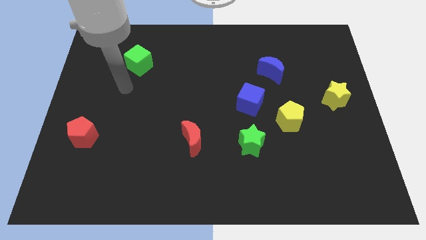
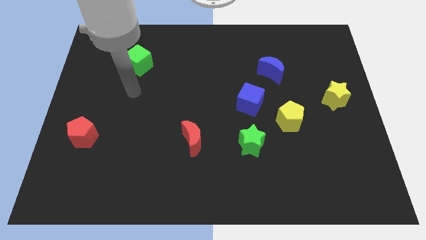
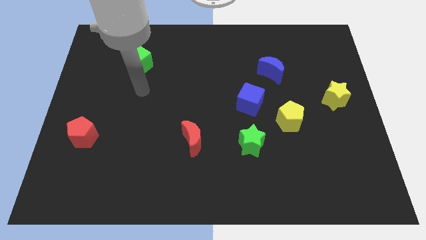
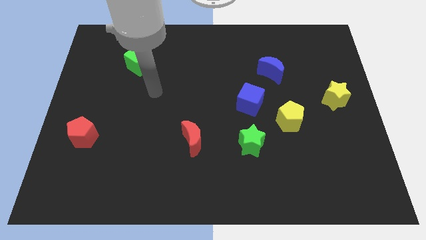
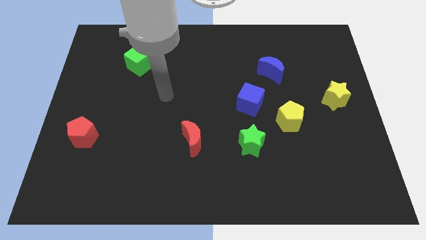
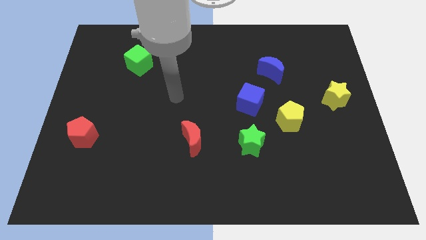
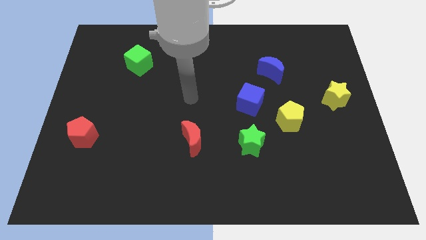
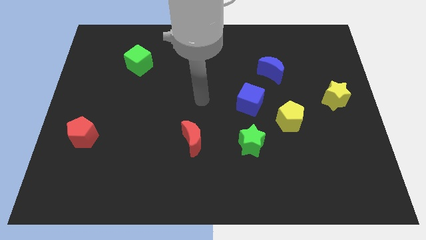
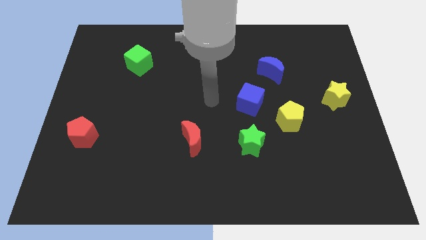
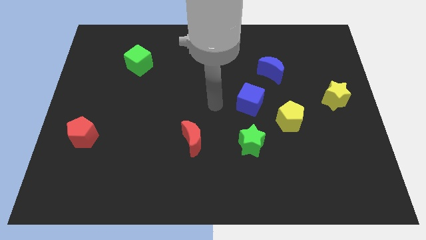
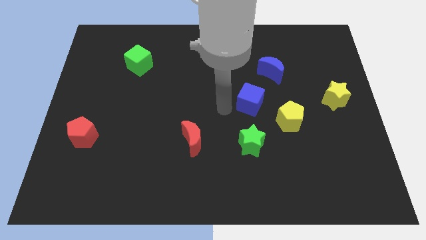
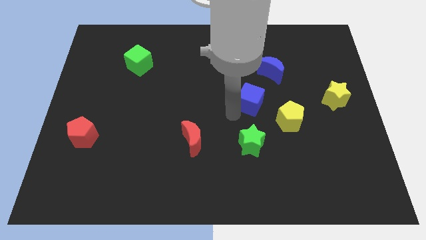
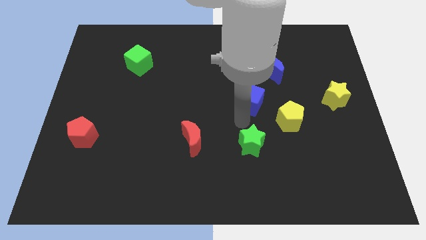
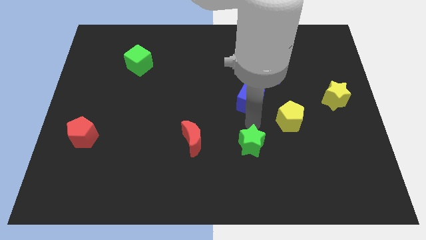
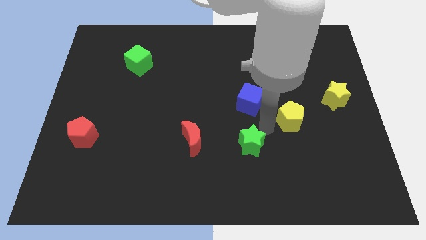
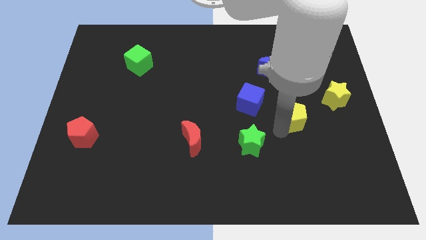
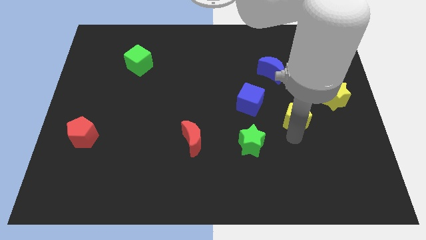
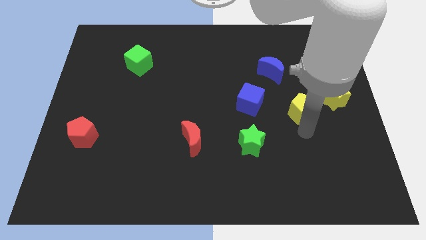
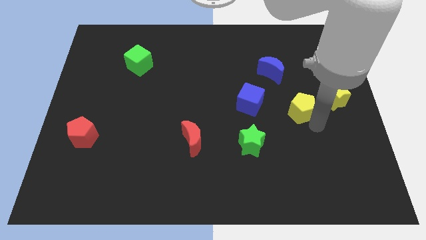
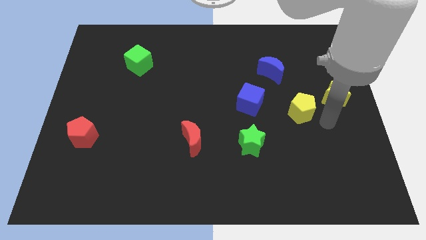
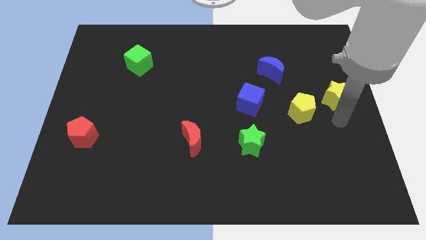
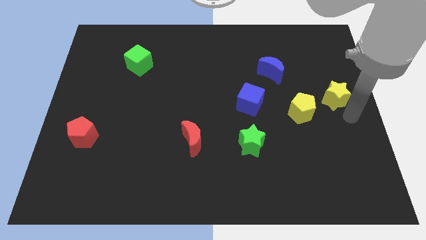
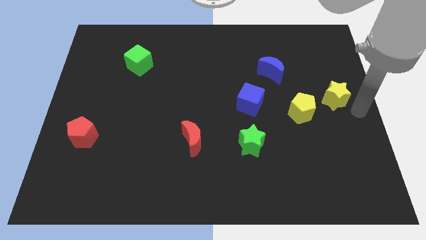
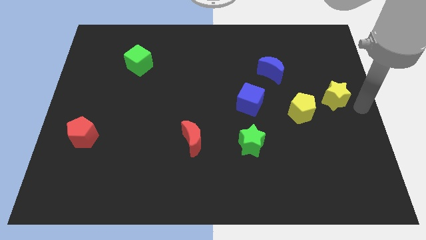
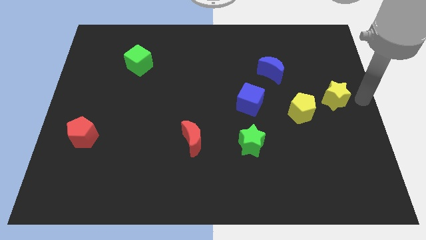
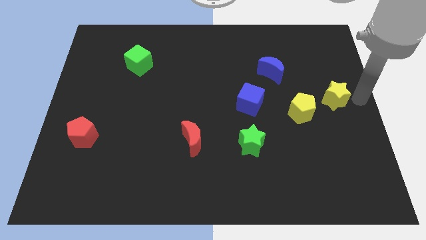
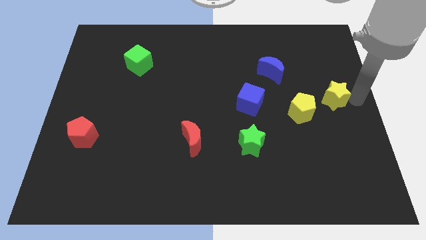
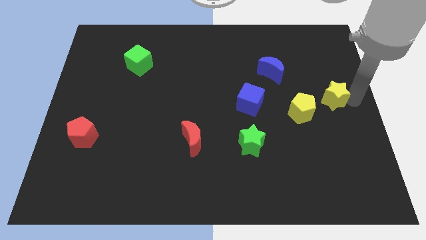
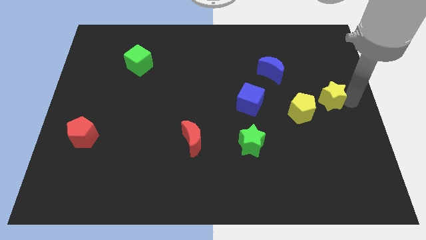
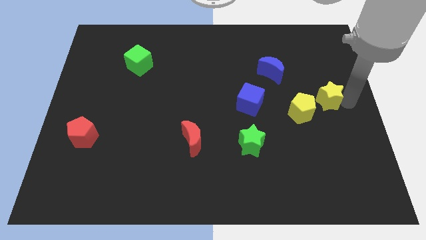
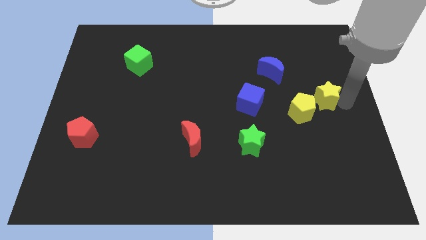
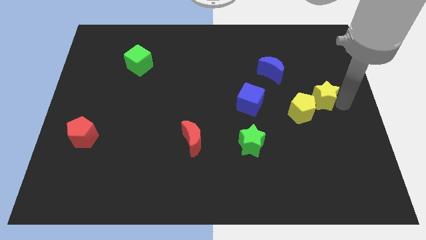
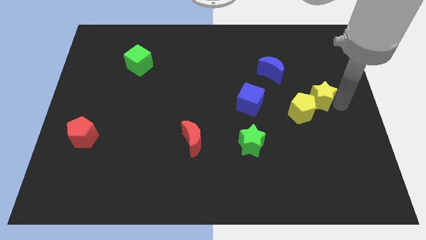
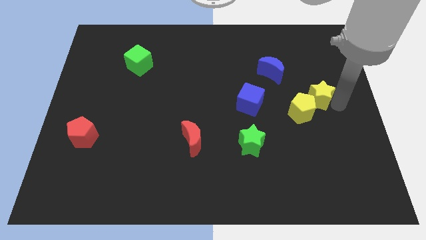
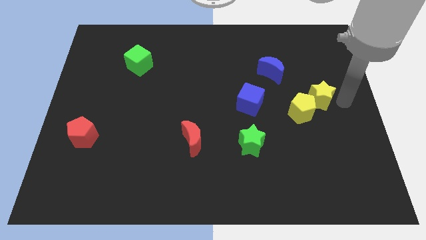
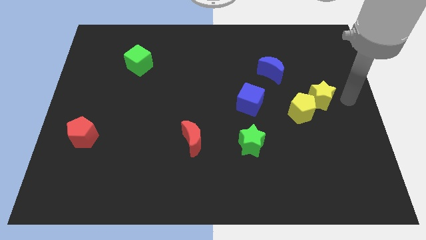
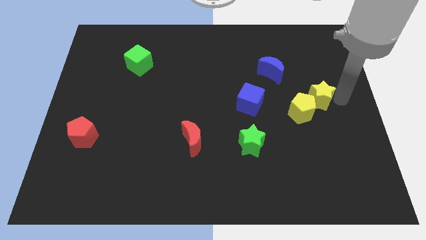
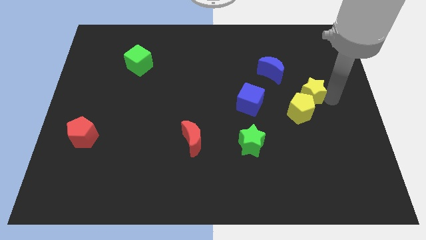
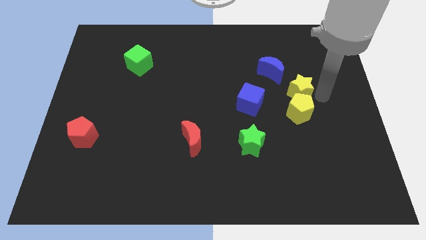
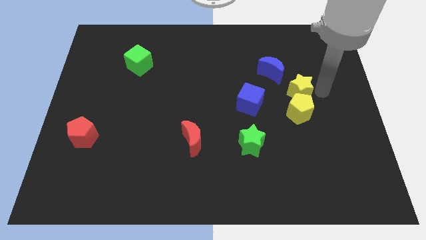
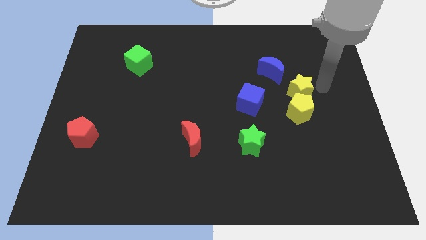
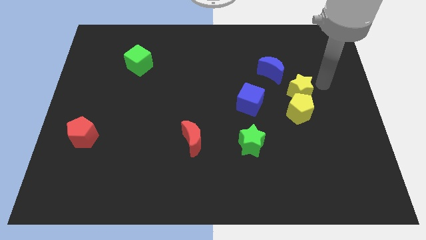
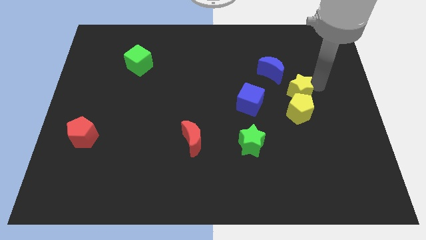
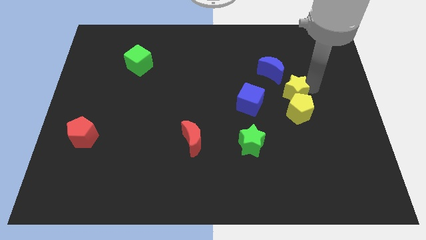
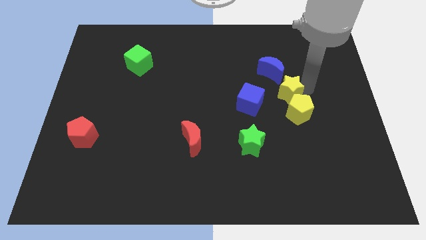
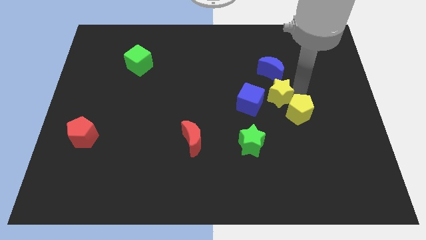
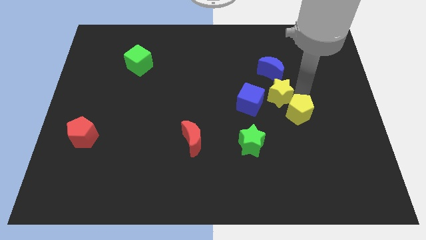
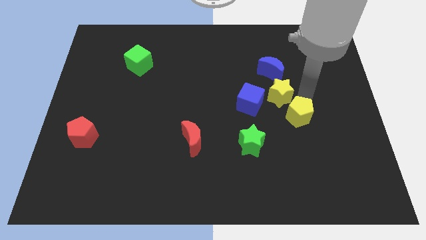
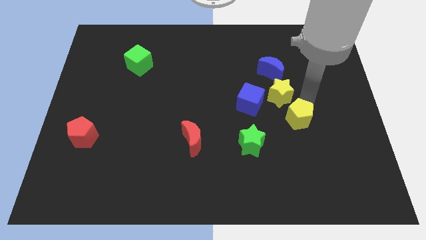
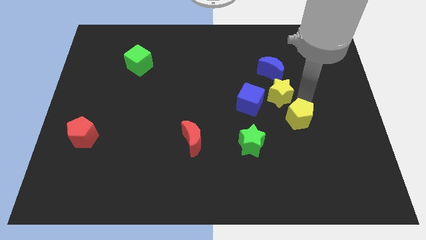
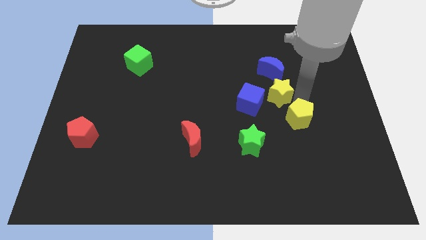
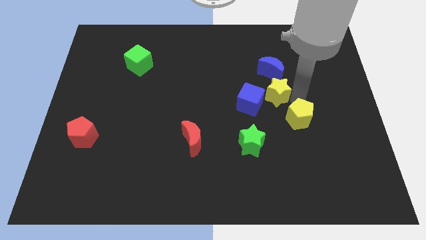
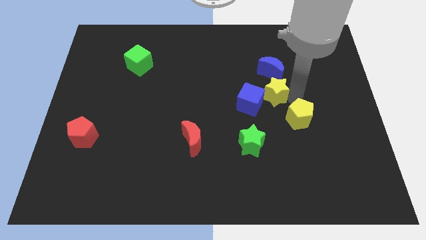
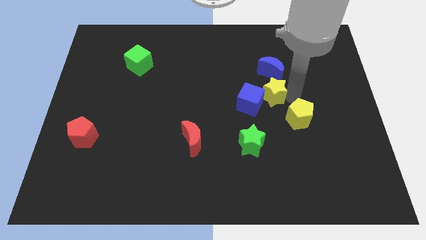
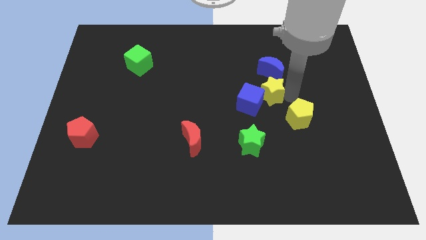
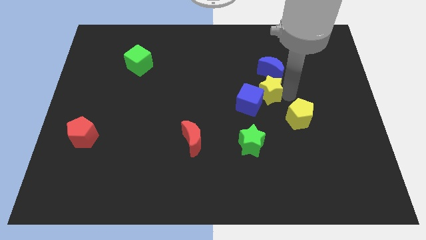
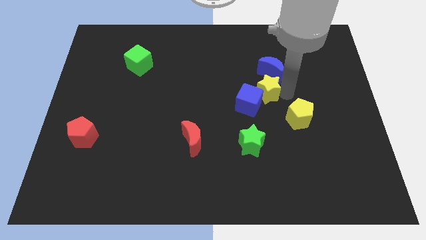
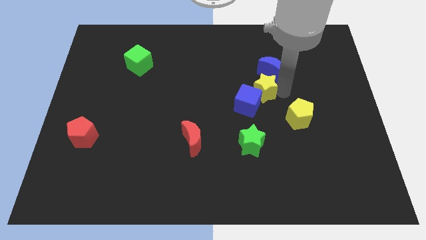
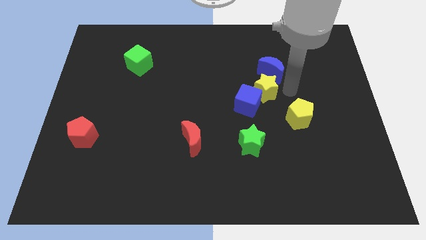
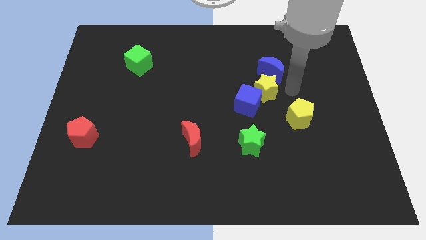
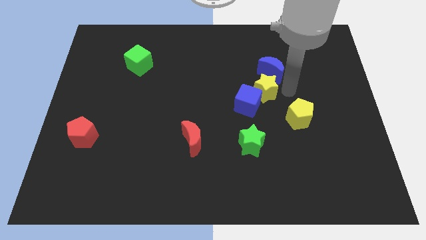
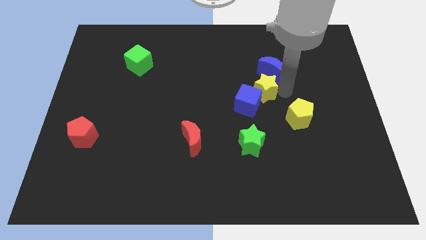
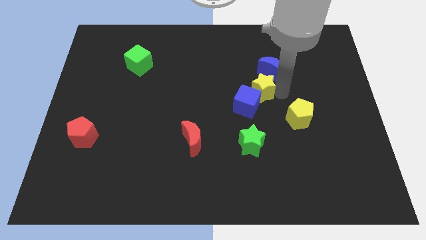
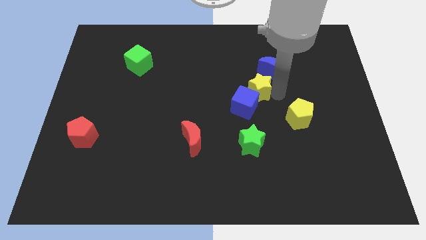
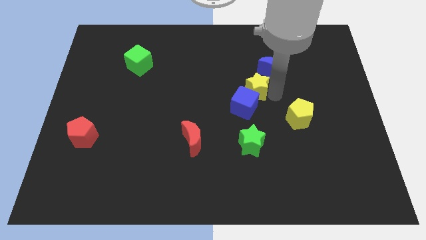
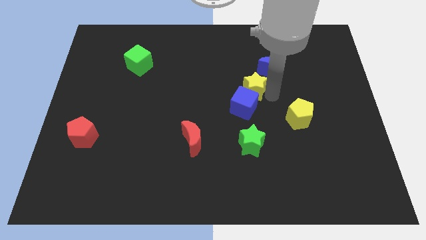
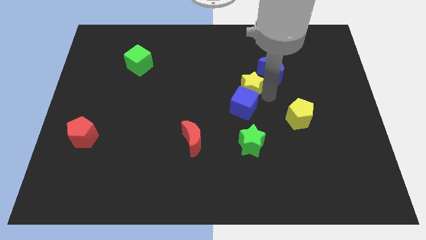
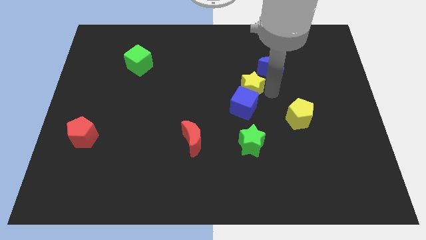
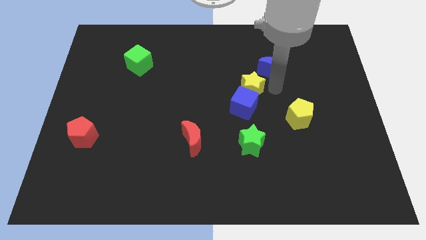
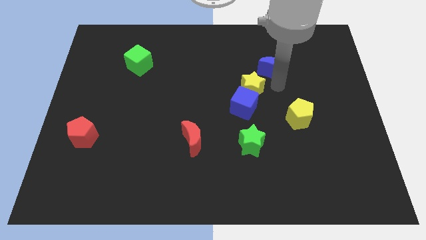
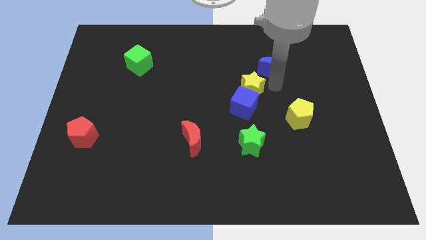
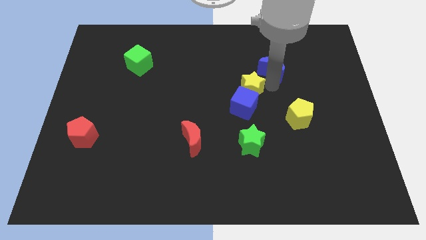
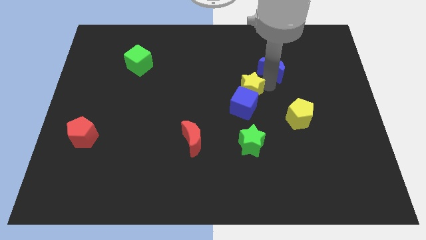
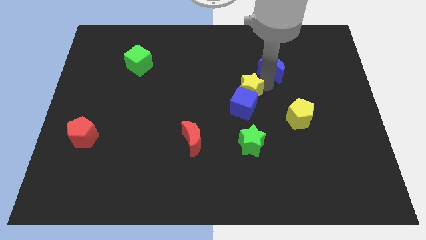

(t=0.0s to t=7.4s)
move the yellow star left

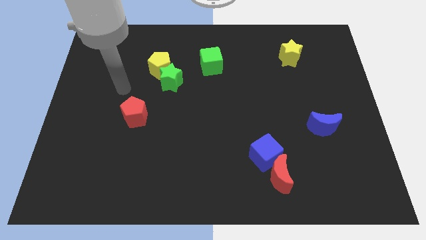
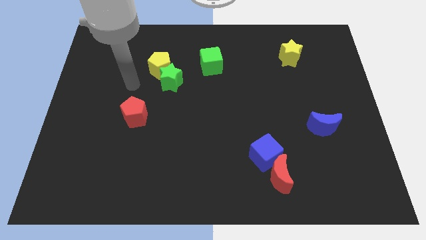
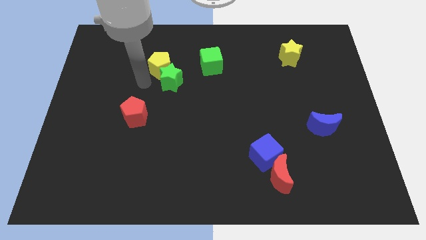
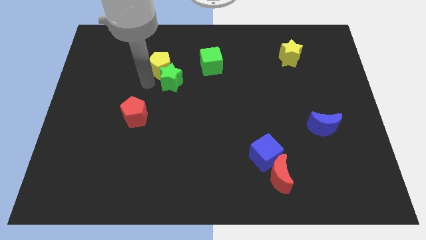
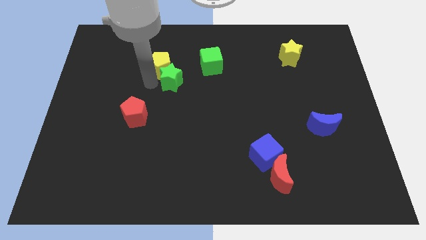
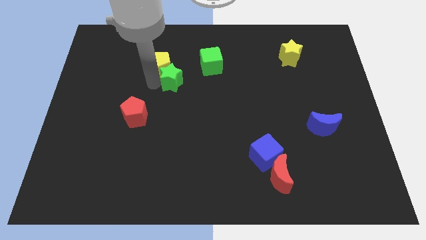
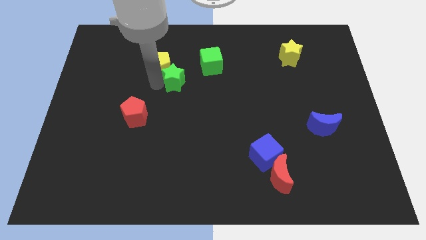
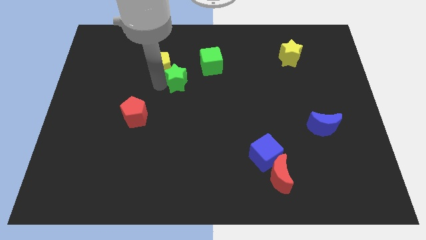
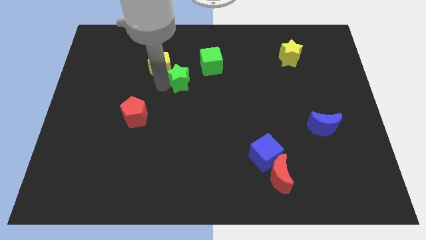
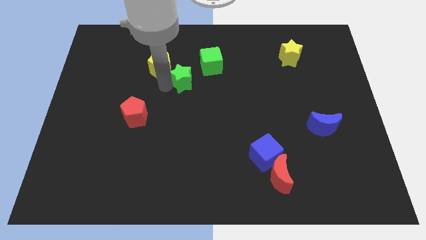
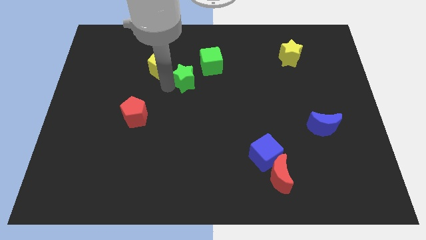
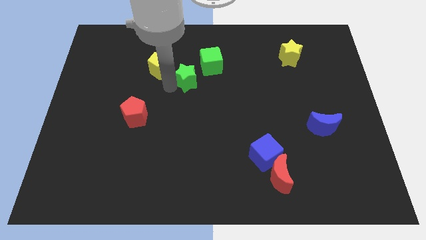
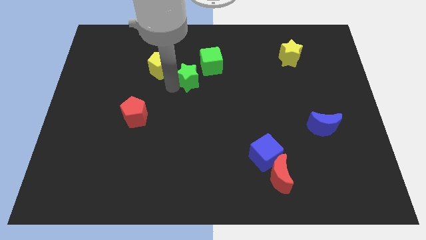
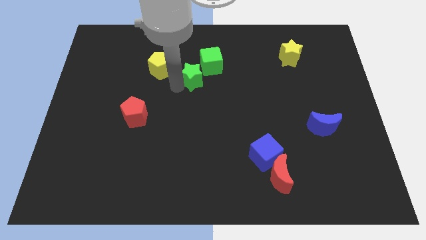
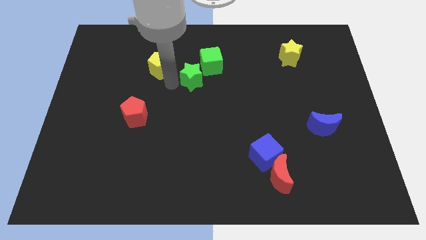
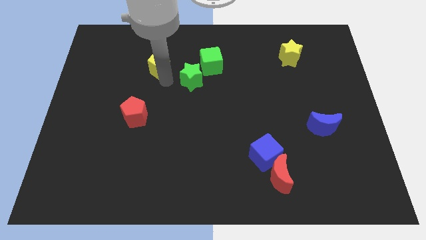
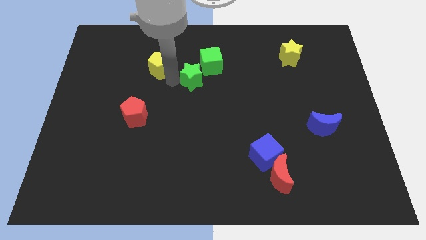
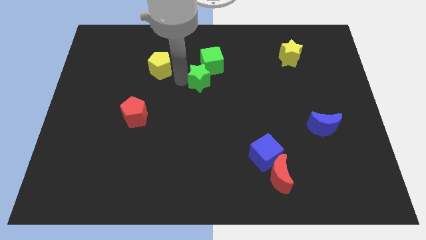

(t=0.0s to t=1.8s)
move the green star a little right
